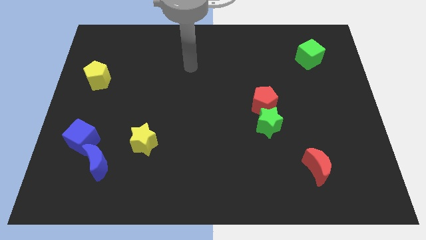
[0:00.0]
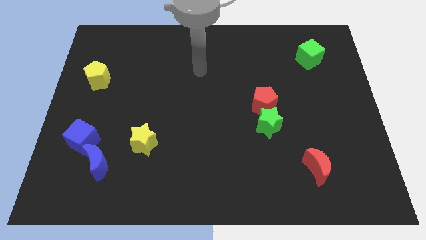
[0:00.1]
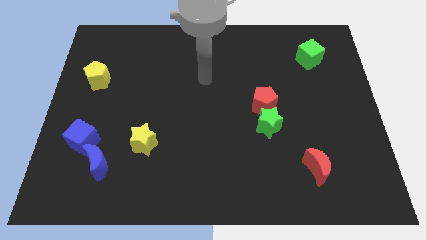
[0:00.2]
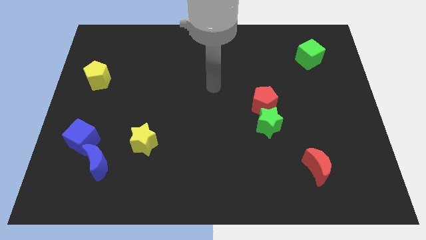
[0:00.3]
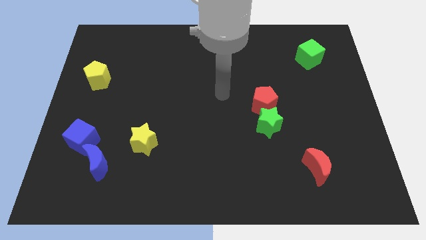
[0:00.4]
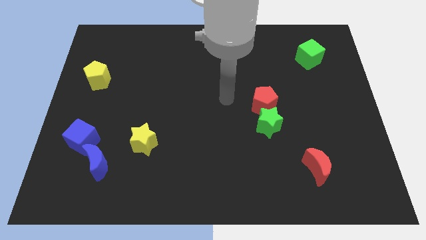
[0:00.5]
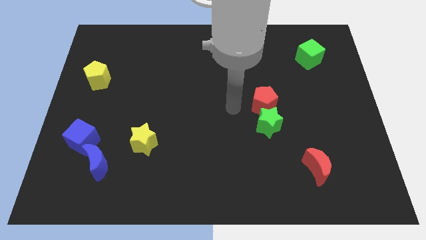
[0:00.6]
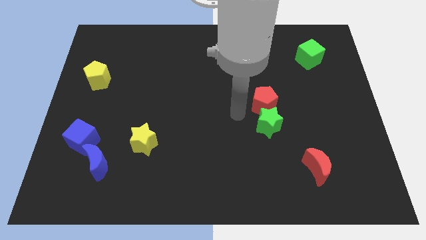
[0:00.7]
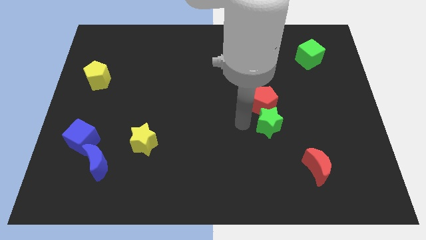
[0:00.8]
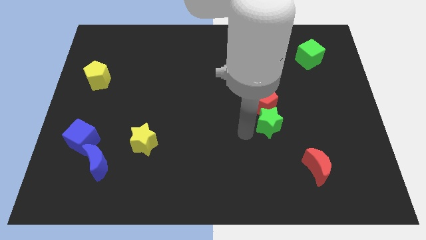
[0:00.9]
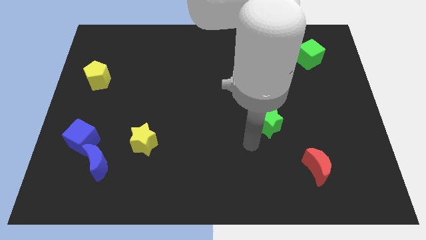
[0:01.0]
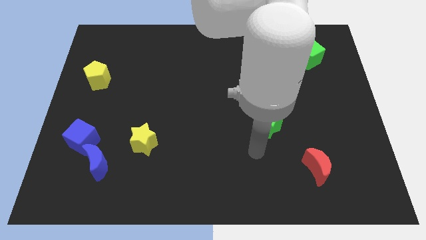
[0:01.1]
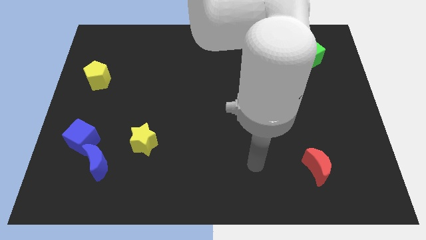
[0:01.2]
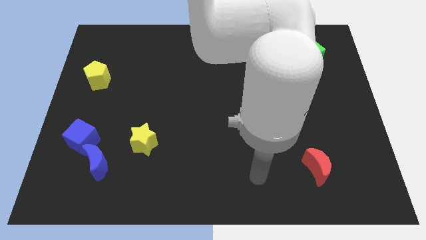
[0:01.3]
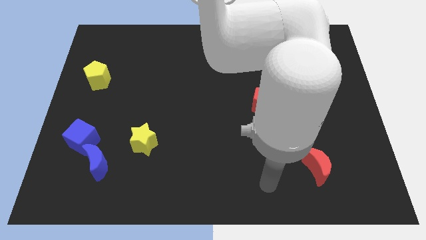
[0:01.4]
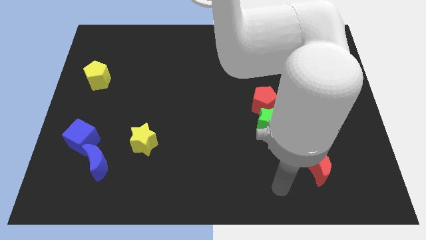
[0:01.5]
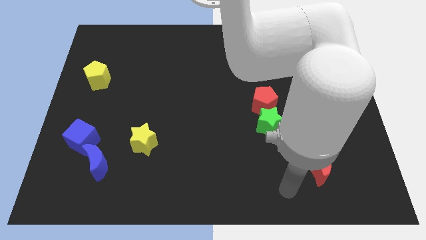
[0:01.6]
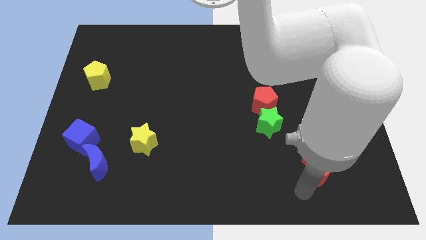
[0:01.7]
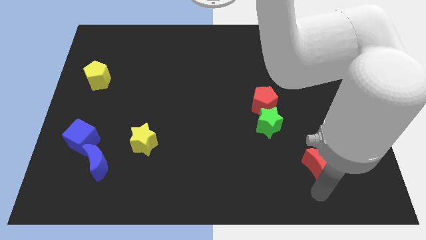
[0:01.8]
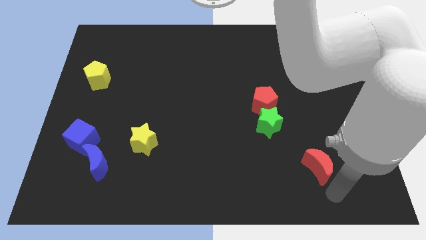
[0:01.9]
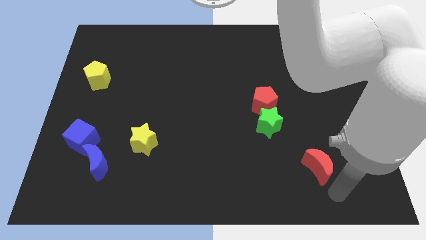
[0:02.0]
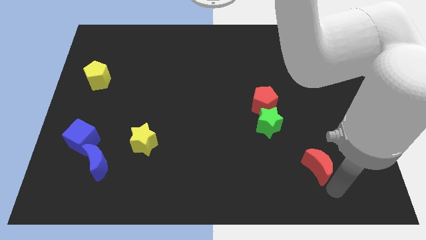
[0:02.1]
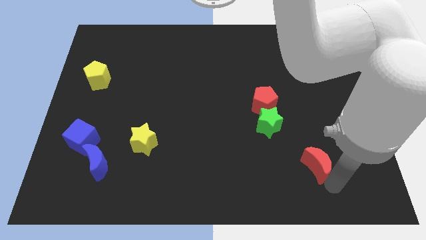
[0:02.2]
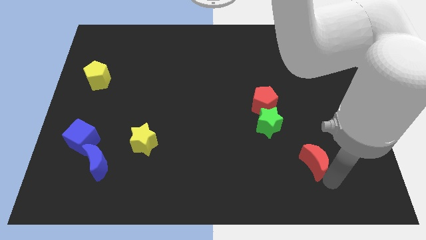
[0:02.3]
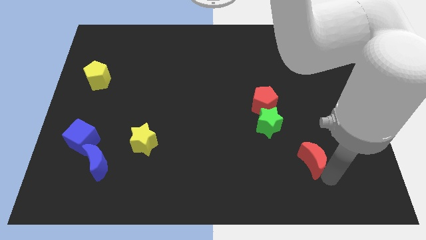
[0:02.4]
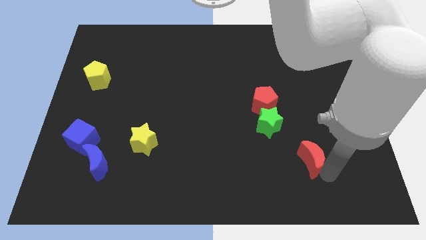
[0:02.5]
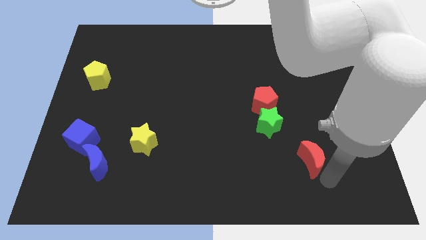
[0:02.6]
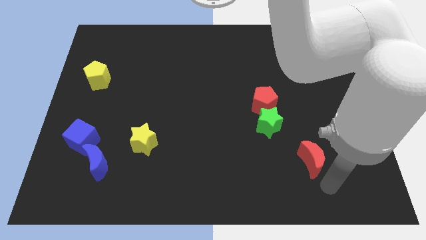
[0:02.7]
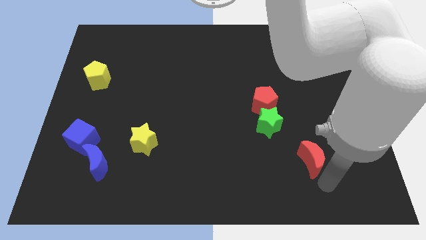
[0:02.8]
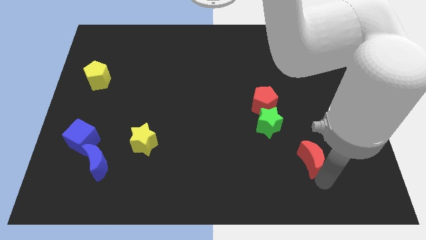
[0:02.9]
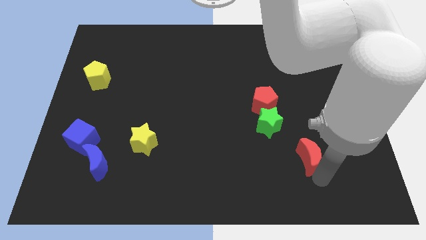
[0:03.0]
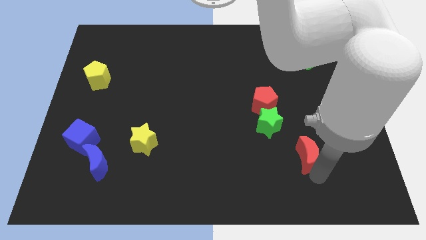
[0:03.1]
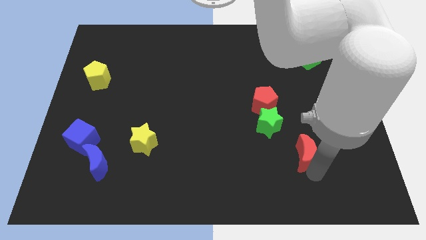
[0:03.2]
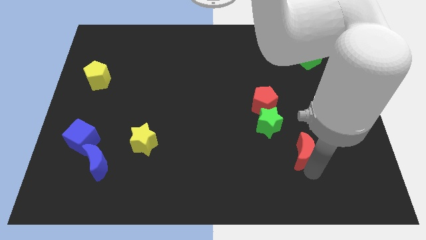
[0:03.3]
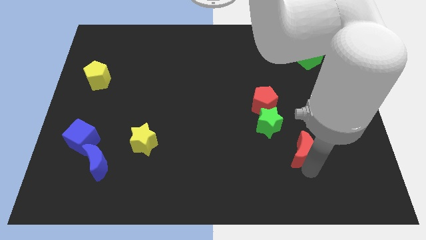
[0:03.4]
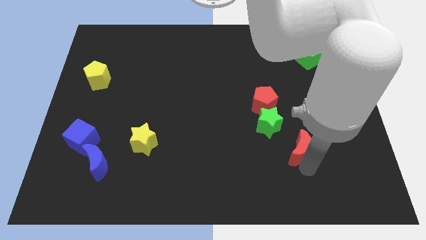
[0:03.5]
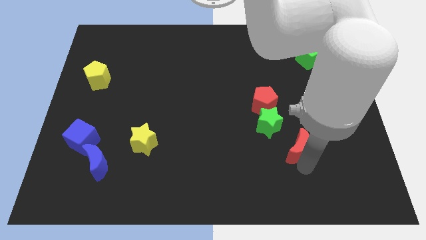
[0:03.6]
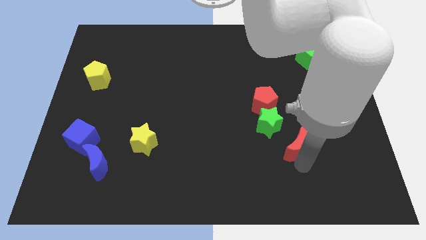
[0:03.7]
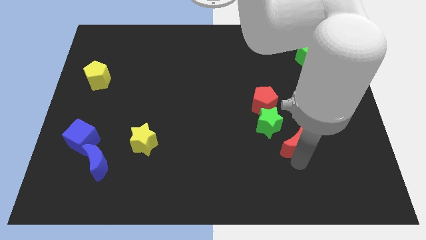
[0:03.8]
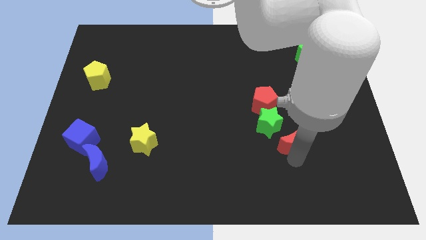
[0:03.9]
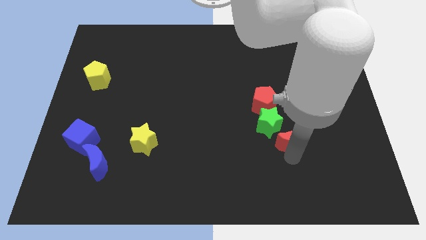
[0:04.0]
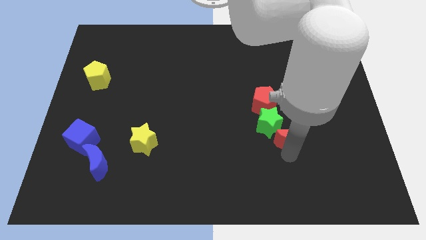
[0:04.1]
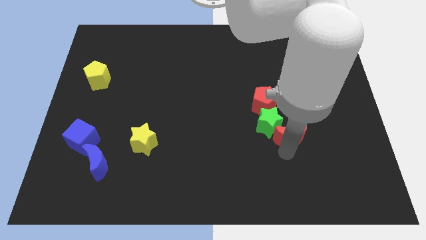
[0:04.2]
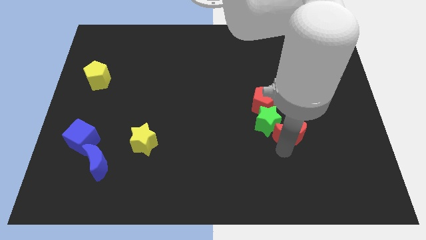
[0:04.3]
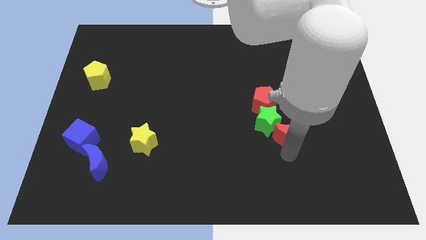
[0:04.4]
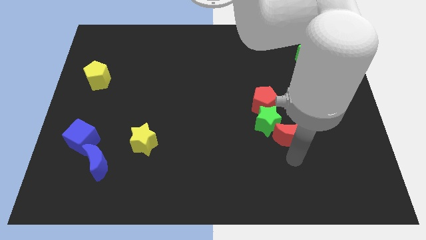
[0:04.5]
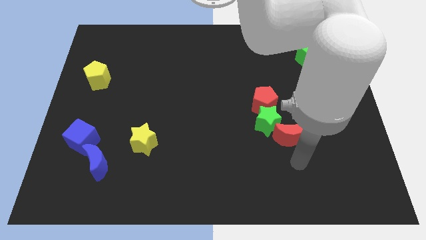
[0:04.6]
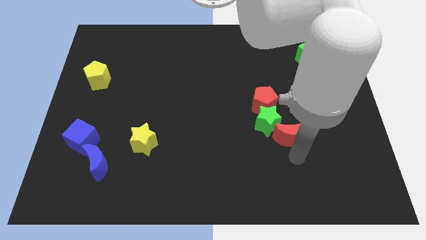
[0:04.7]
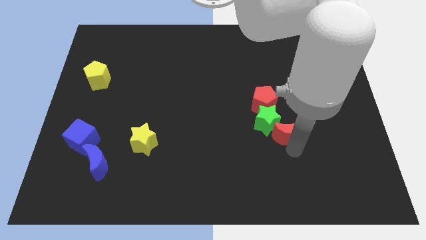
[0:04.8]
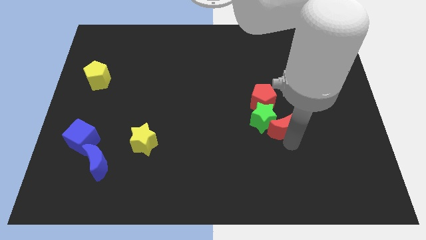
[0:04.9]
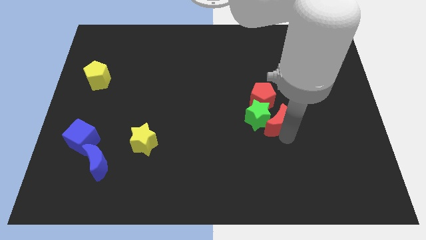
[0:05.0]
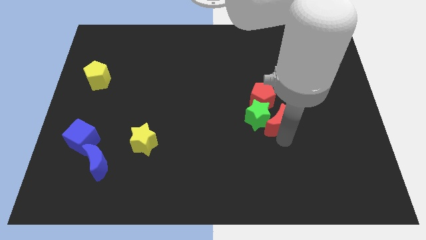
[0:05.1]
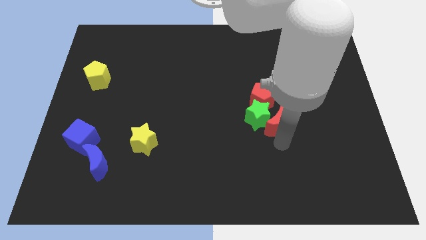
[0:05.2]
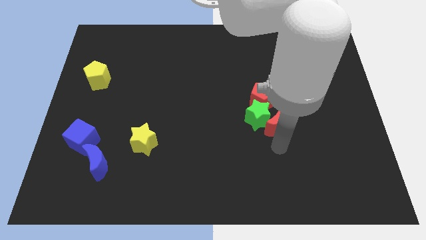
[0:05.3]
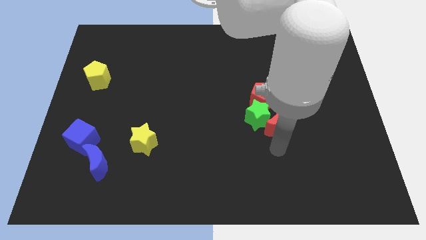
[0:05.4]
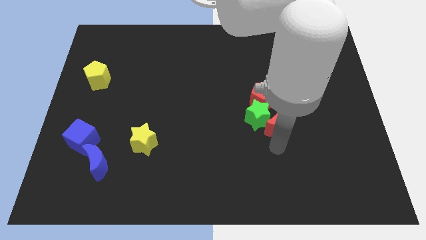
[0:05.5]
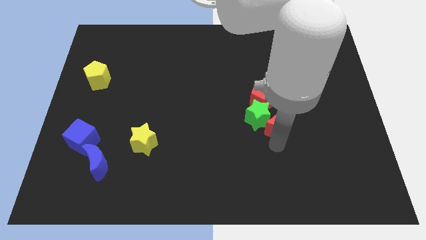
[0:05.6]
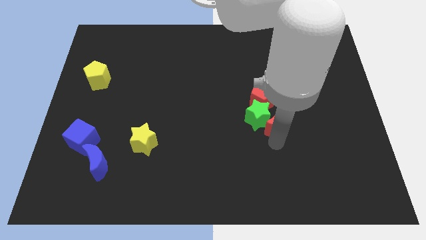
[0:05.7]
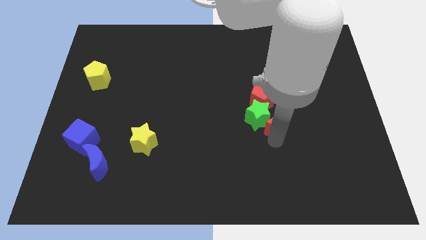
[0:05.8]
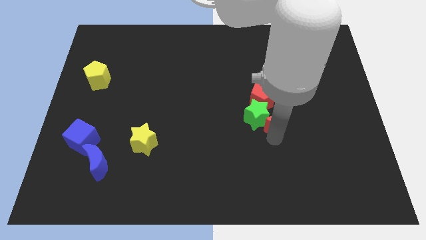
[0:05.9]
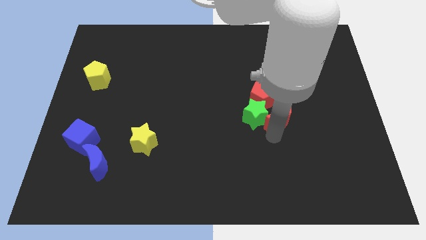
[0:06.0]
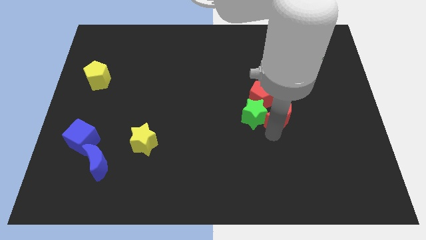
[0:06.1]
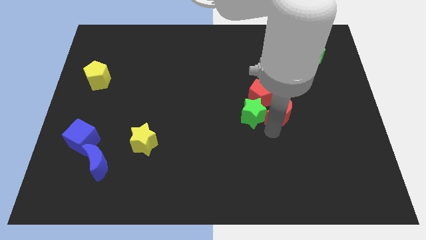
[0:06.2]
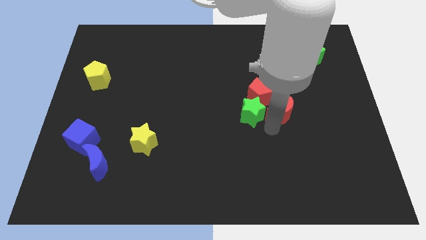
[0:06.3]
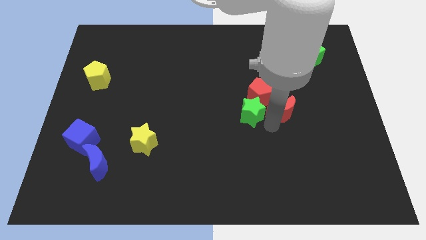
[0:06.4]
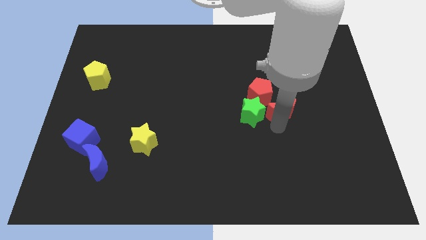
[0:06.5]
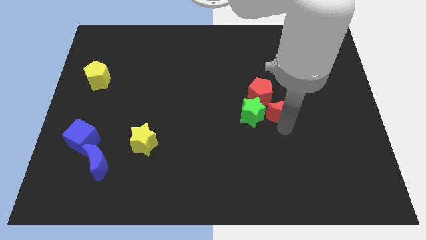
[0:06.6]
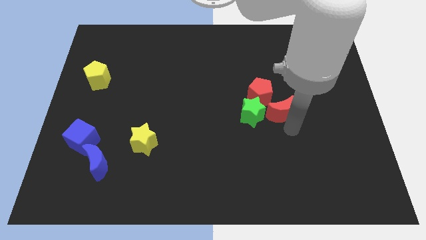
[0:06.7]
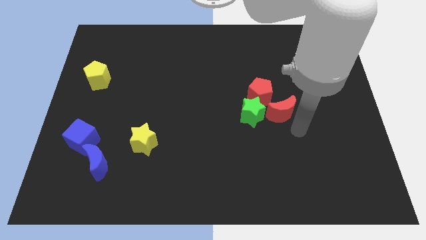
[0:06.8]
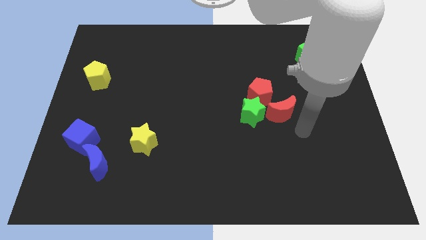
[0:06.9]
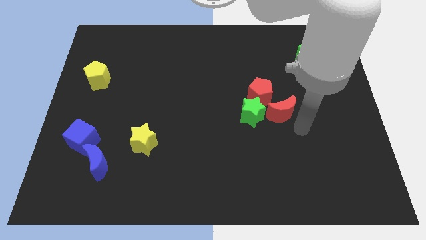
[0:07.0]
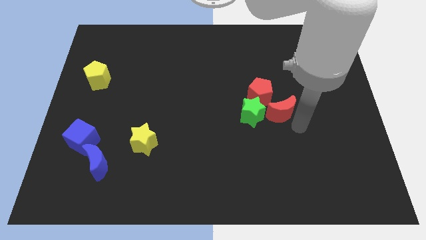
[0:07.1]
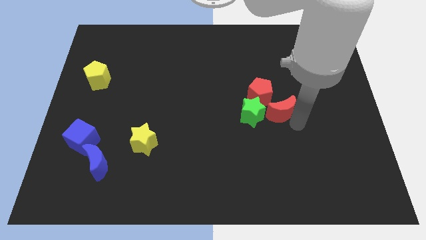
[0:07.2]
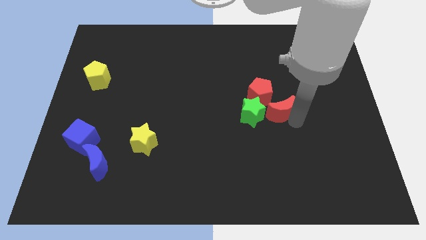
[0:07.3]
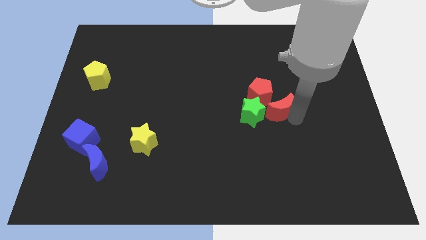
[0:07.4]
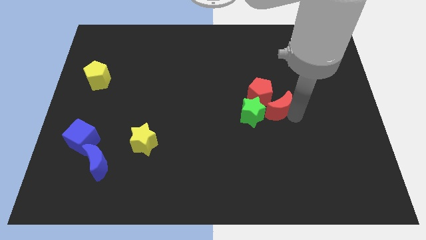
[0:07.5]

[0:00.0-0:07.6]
push the red moon towards the red pentagon
